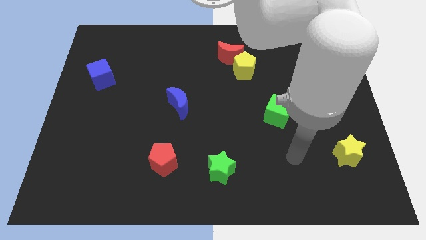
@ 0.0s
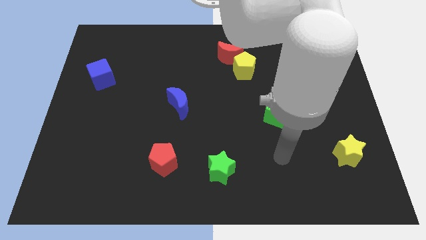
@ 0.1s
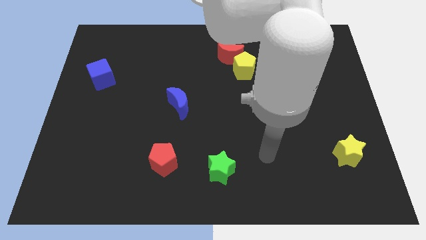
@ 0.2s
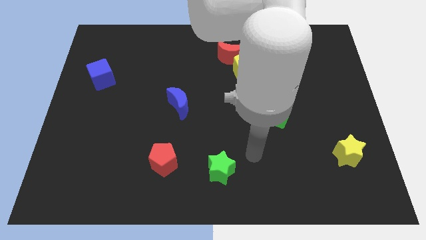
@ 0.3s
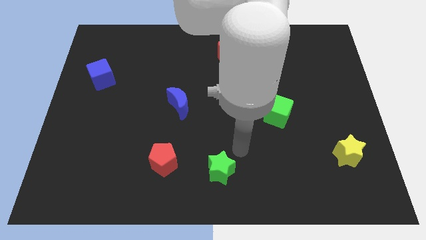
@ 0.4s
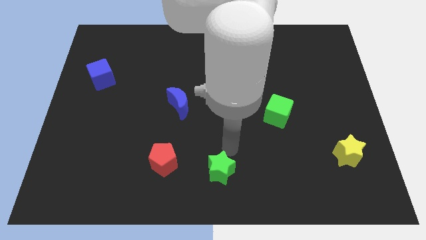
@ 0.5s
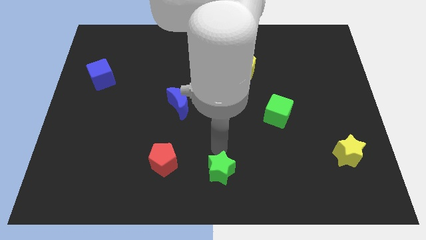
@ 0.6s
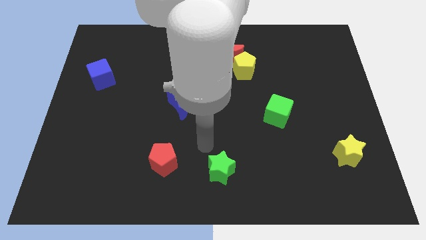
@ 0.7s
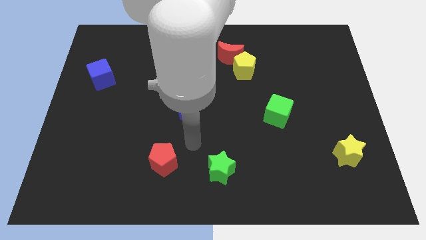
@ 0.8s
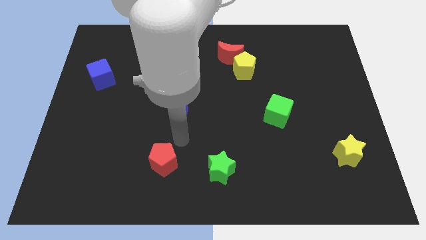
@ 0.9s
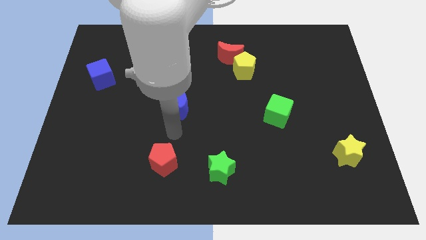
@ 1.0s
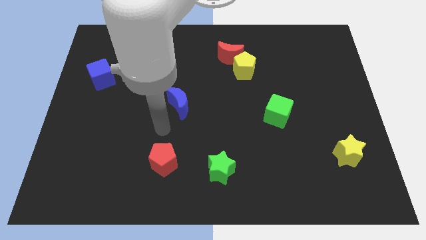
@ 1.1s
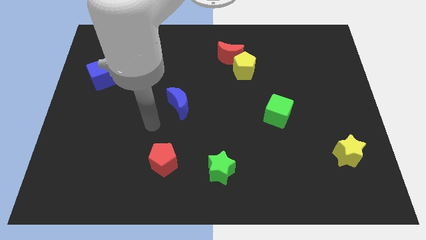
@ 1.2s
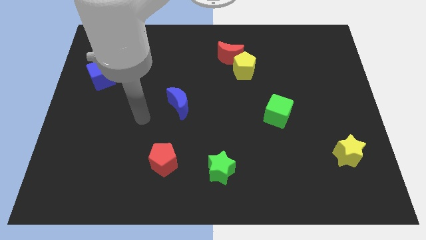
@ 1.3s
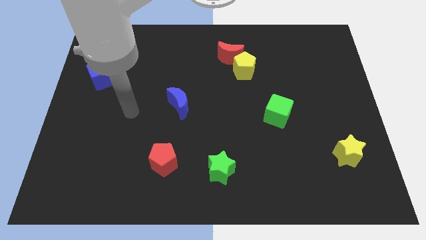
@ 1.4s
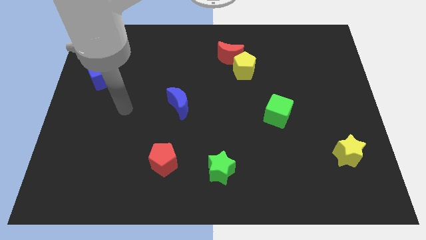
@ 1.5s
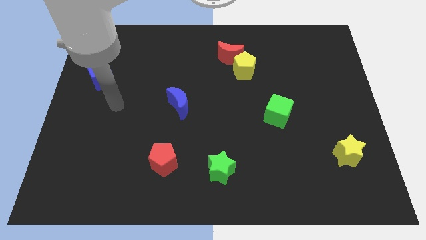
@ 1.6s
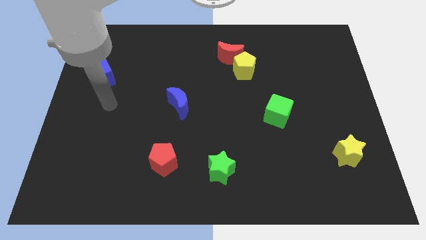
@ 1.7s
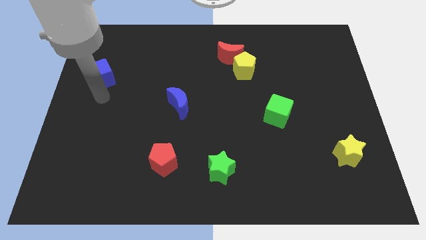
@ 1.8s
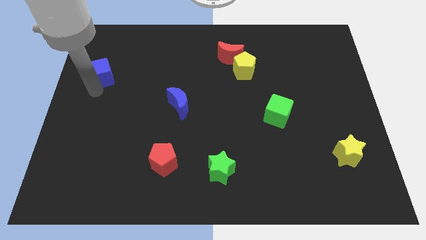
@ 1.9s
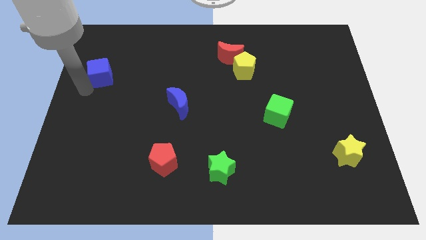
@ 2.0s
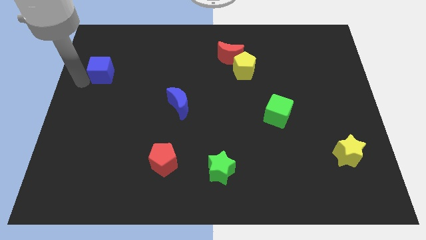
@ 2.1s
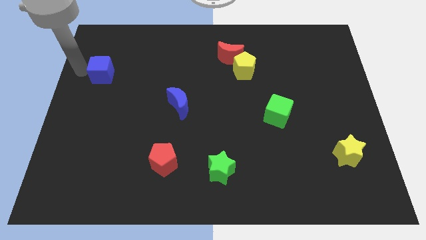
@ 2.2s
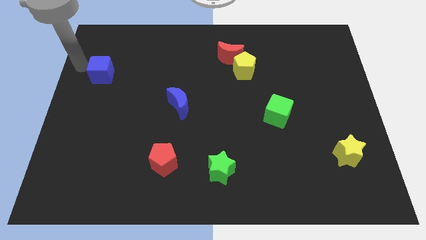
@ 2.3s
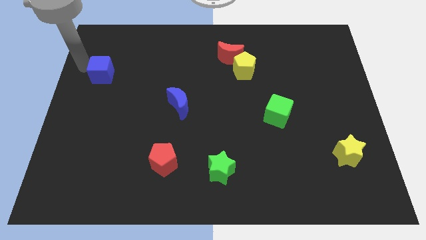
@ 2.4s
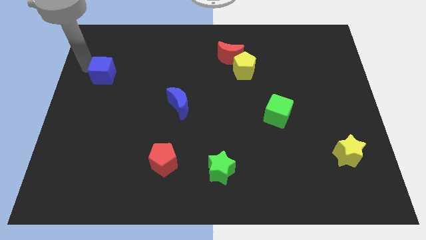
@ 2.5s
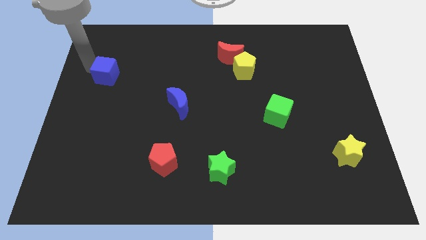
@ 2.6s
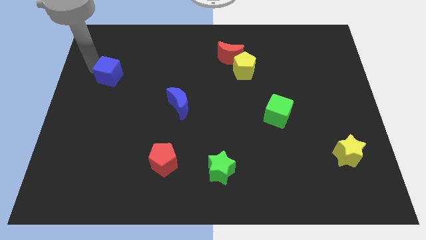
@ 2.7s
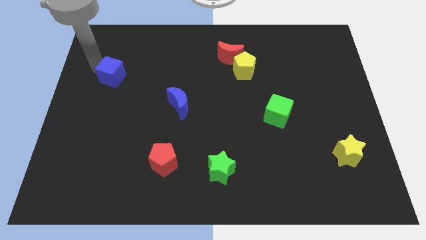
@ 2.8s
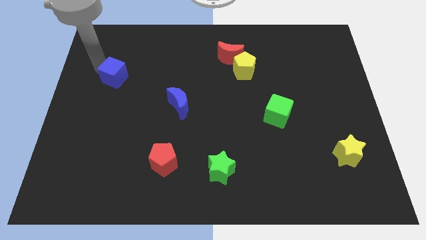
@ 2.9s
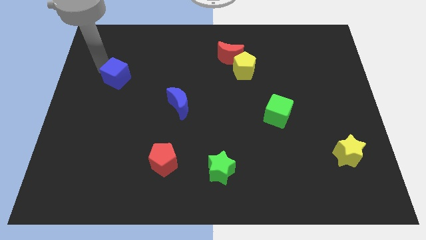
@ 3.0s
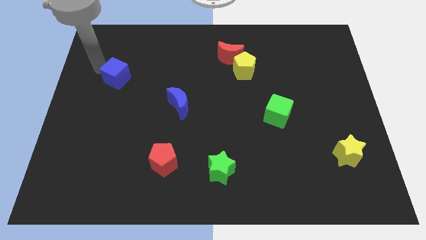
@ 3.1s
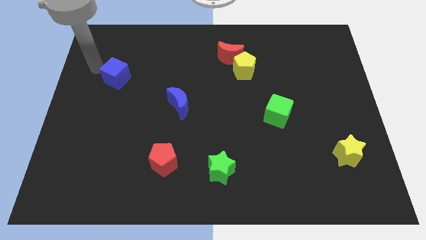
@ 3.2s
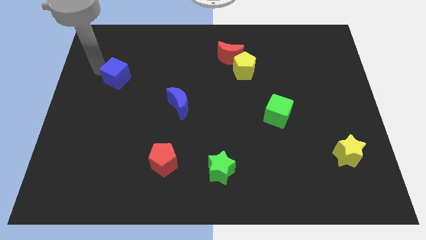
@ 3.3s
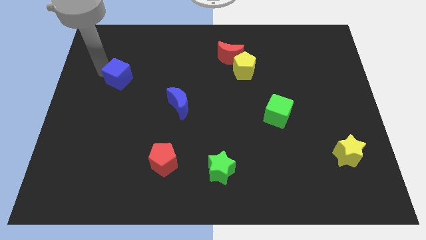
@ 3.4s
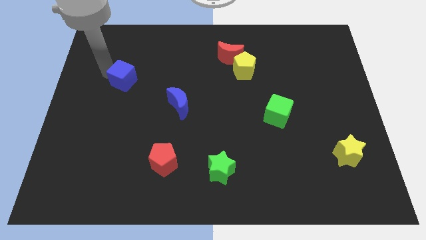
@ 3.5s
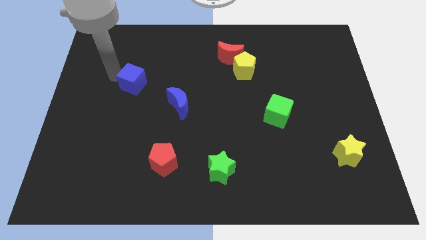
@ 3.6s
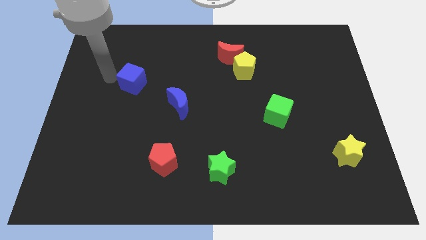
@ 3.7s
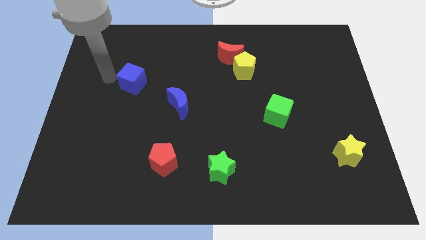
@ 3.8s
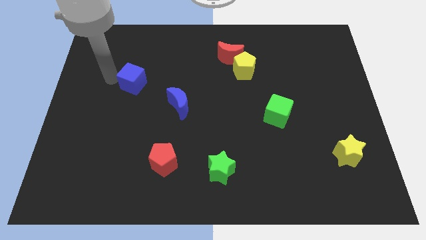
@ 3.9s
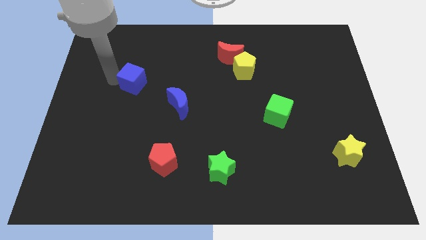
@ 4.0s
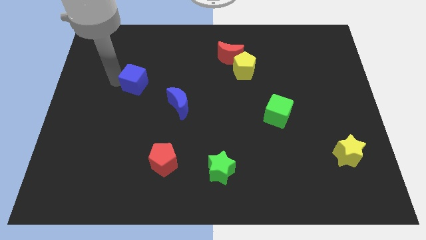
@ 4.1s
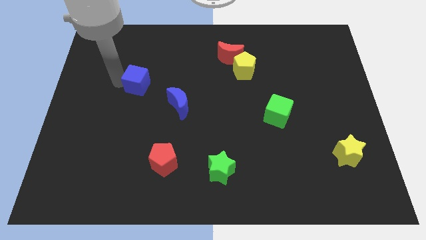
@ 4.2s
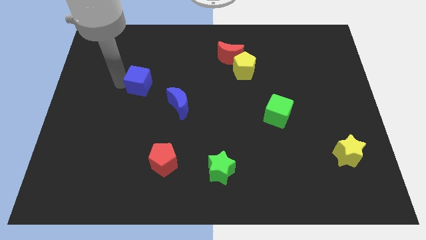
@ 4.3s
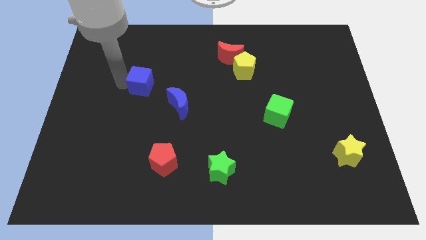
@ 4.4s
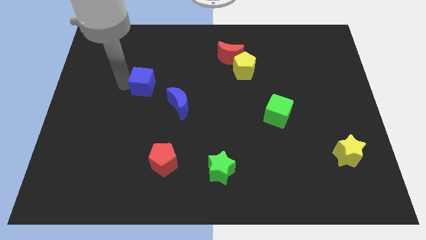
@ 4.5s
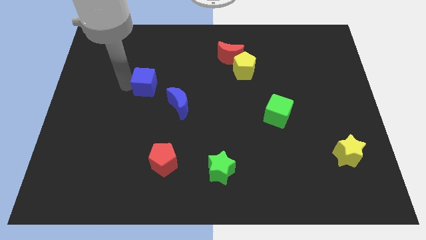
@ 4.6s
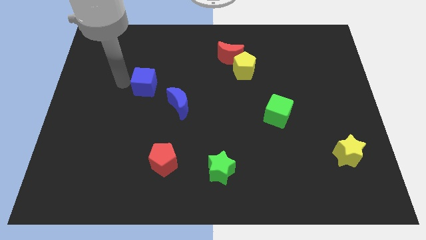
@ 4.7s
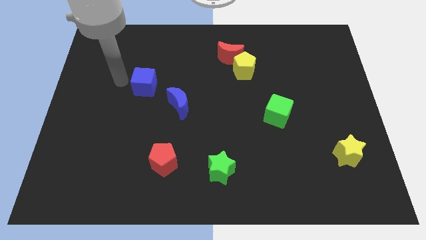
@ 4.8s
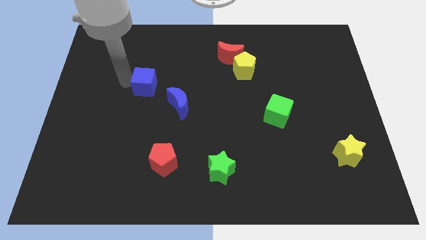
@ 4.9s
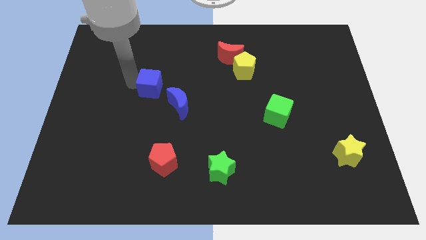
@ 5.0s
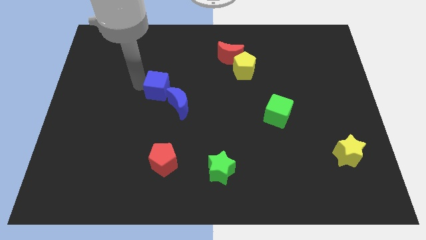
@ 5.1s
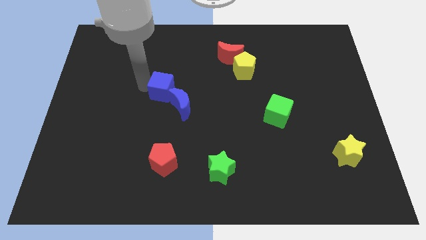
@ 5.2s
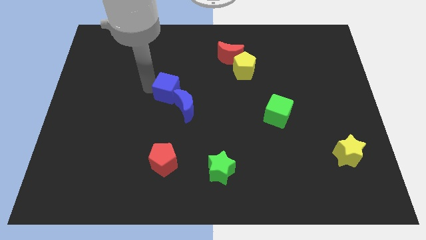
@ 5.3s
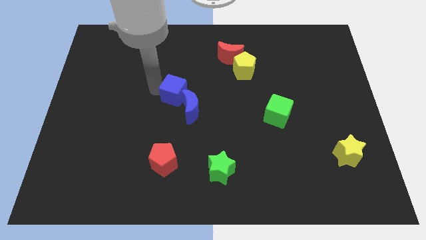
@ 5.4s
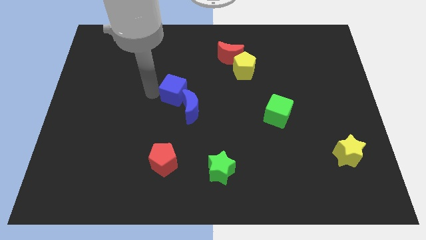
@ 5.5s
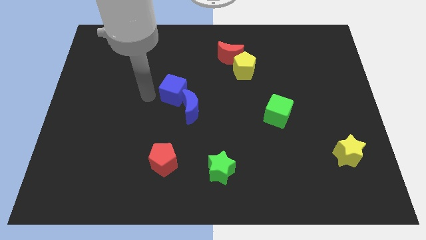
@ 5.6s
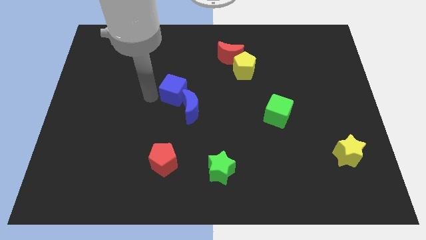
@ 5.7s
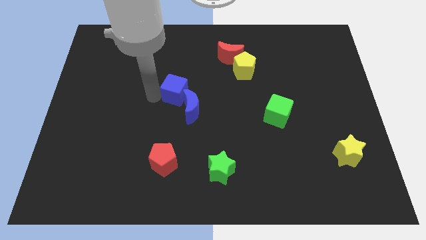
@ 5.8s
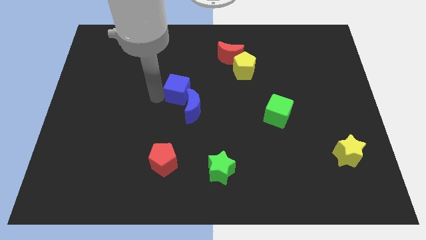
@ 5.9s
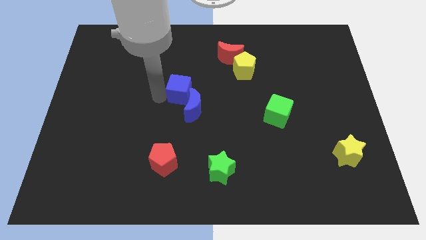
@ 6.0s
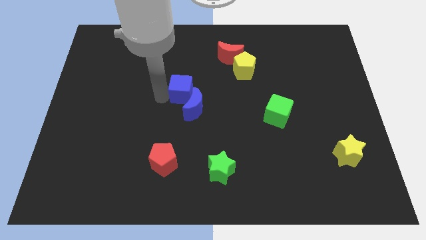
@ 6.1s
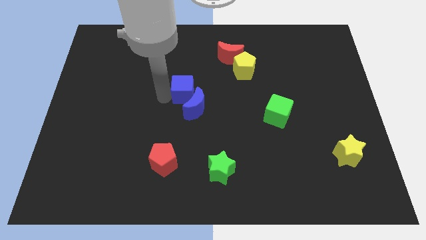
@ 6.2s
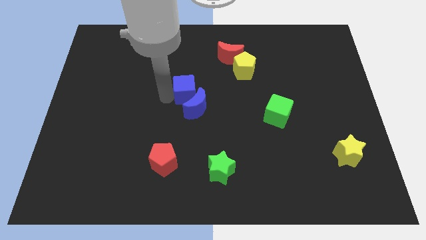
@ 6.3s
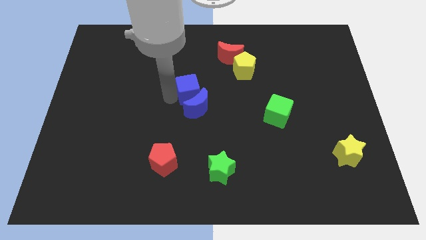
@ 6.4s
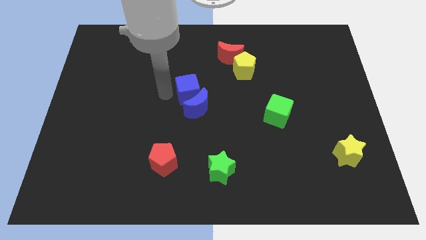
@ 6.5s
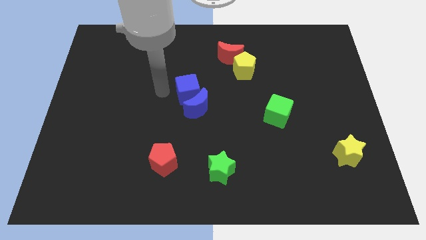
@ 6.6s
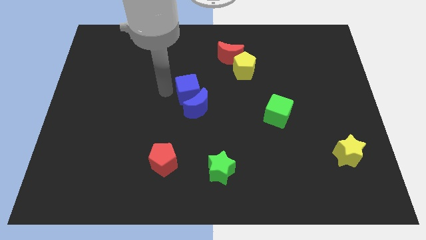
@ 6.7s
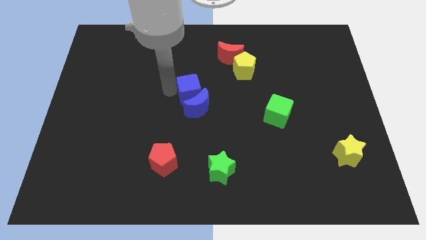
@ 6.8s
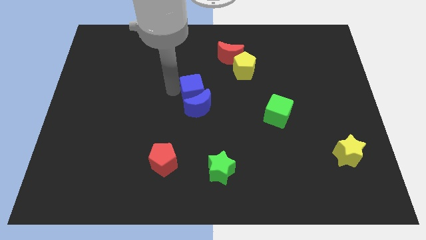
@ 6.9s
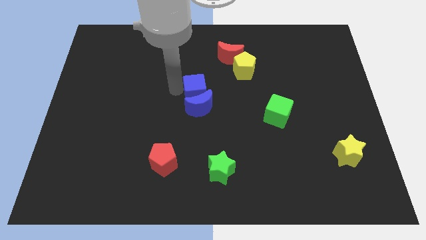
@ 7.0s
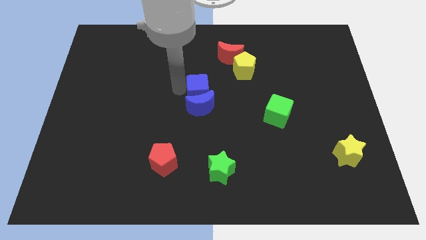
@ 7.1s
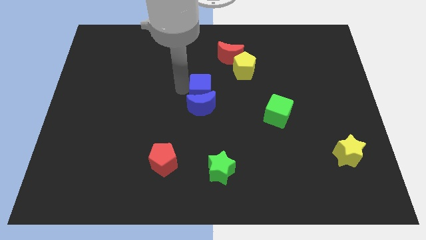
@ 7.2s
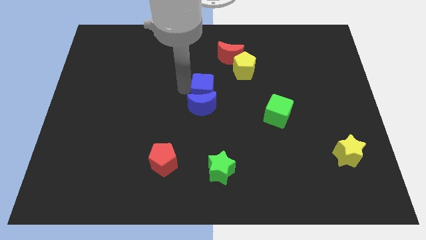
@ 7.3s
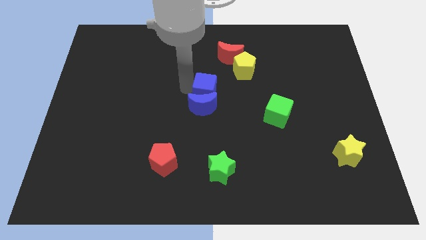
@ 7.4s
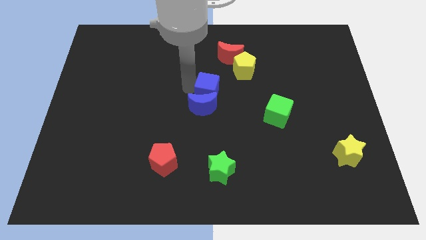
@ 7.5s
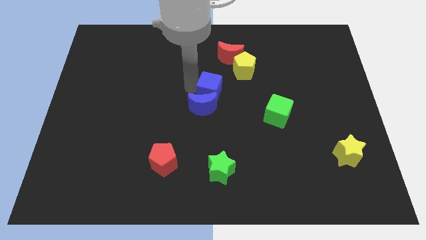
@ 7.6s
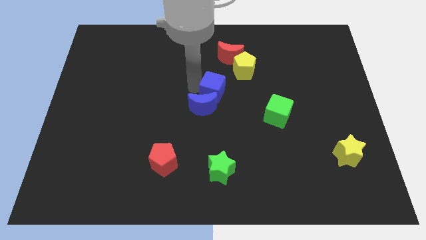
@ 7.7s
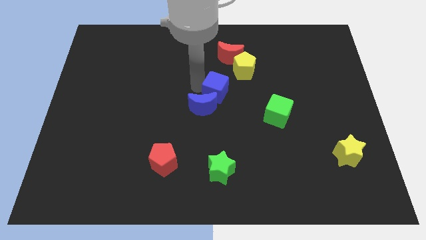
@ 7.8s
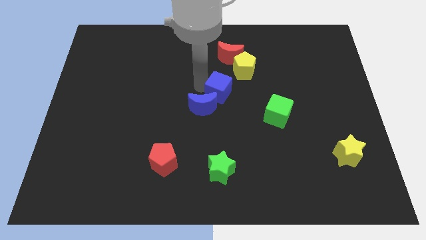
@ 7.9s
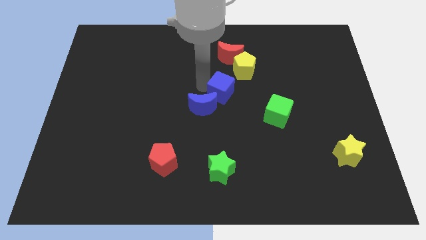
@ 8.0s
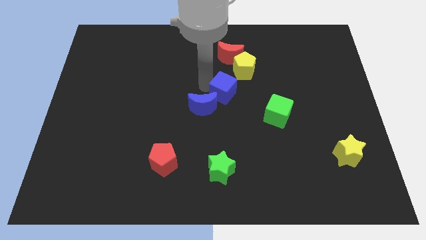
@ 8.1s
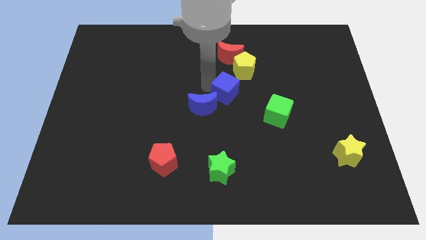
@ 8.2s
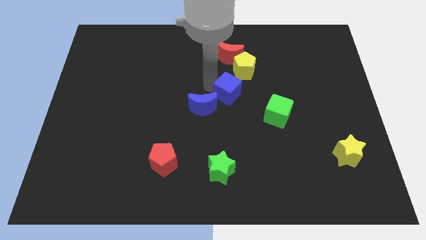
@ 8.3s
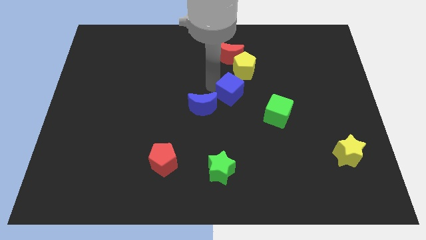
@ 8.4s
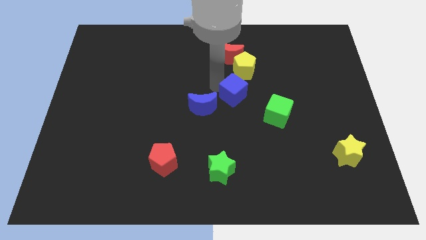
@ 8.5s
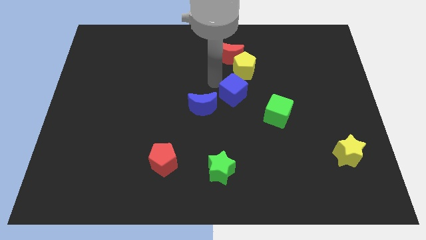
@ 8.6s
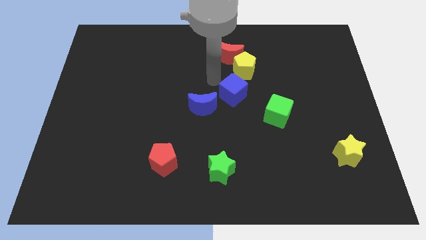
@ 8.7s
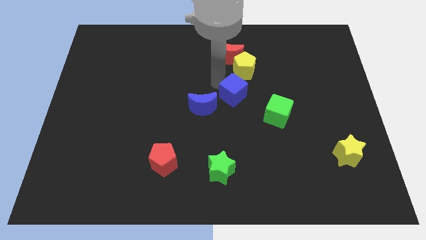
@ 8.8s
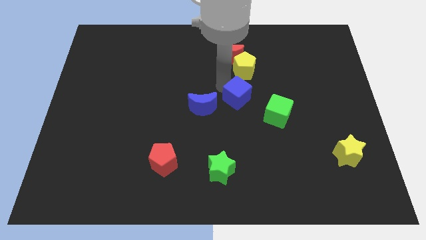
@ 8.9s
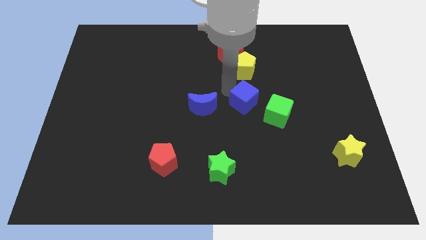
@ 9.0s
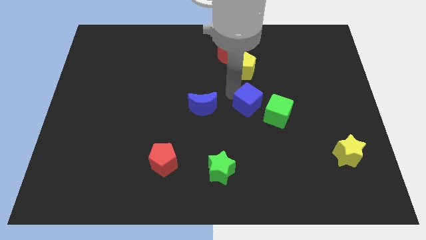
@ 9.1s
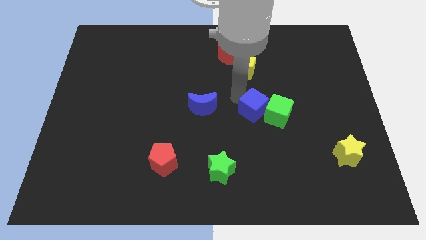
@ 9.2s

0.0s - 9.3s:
push the blue cube next to the green cube
